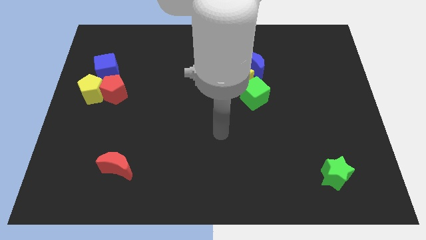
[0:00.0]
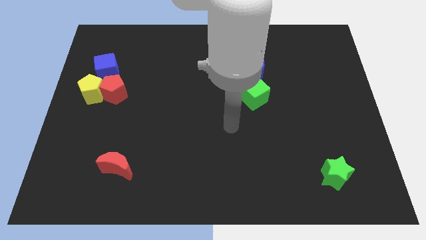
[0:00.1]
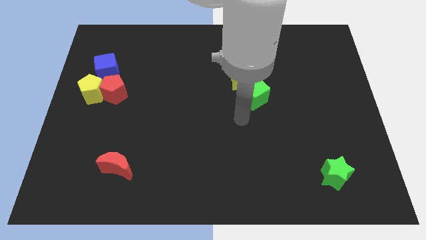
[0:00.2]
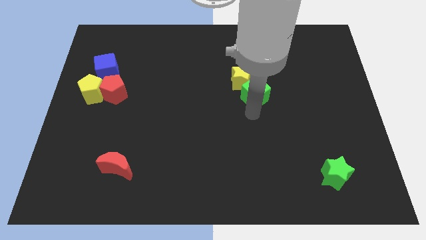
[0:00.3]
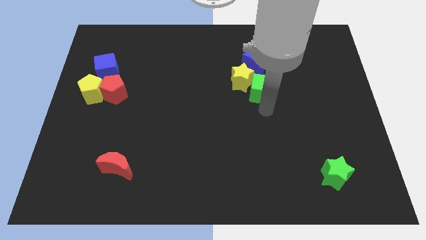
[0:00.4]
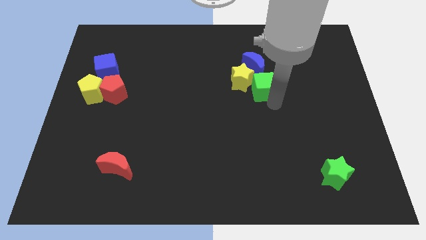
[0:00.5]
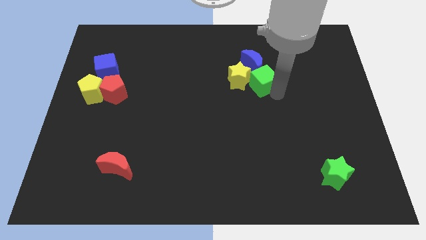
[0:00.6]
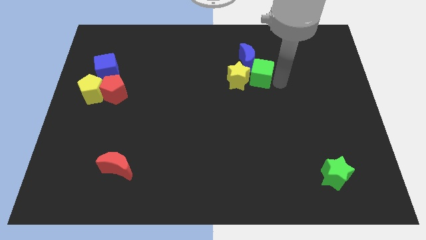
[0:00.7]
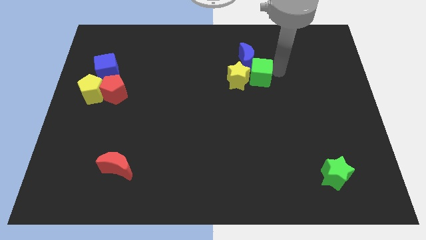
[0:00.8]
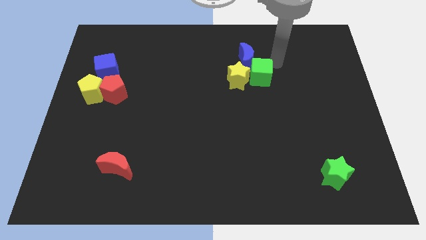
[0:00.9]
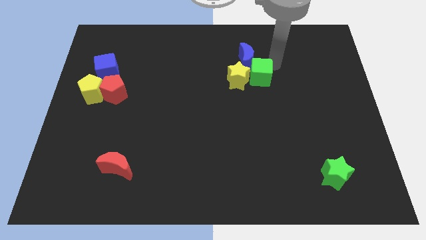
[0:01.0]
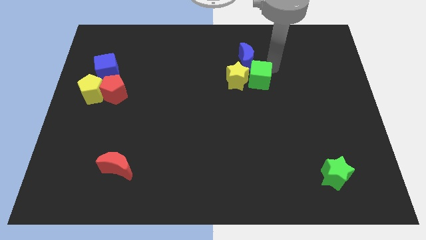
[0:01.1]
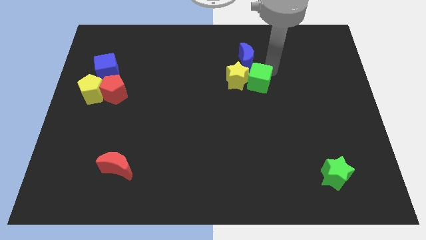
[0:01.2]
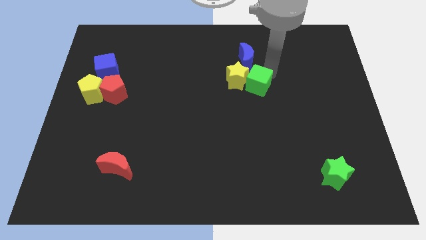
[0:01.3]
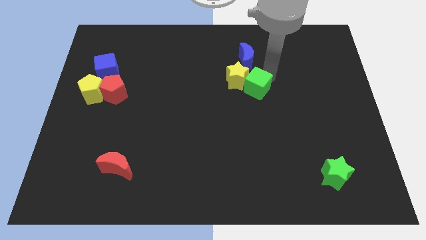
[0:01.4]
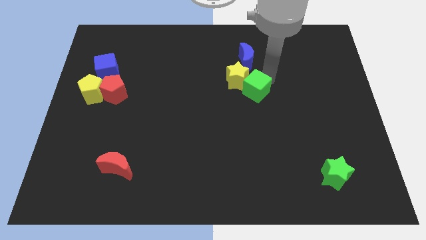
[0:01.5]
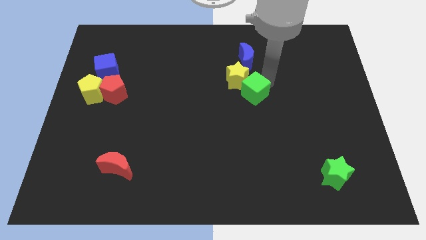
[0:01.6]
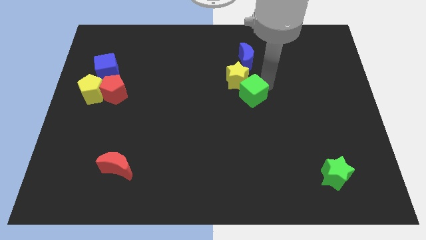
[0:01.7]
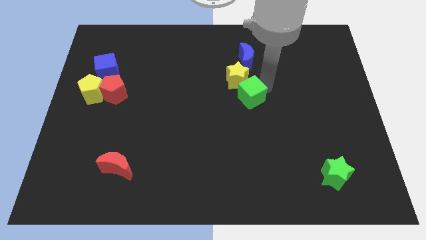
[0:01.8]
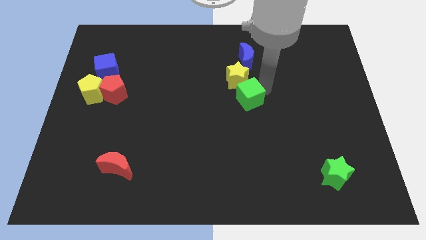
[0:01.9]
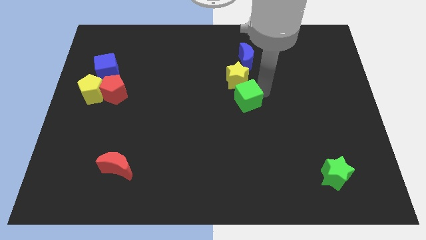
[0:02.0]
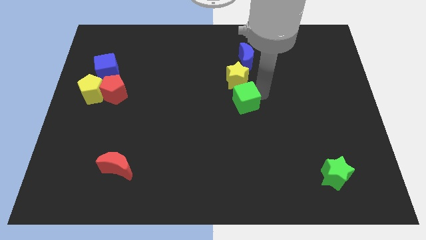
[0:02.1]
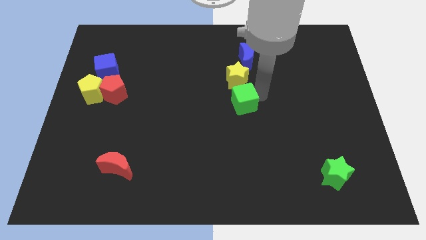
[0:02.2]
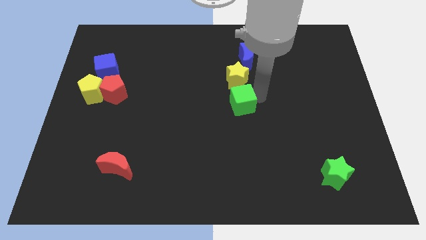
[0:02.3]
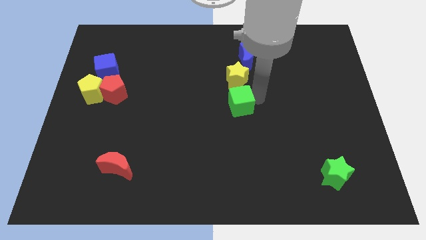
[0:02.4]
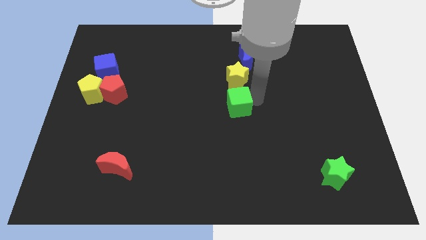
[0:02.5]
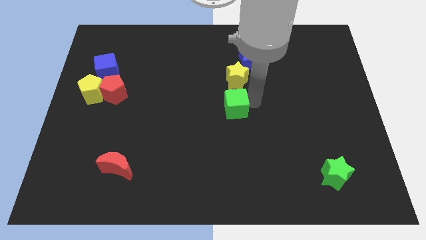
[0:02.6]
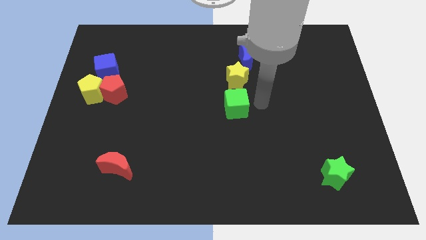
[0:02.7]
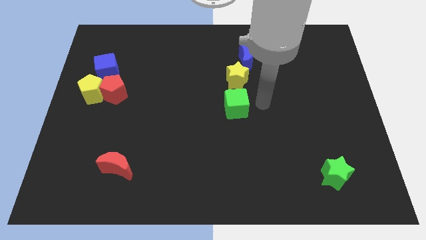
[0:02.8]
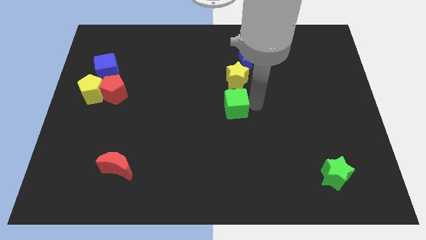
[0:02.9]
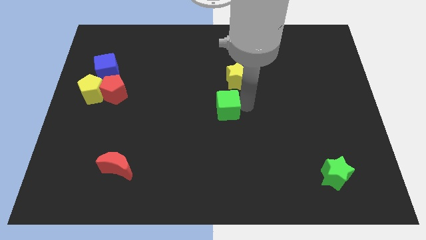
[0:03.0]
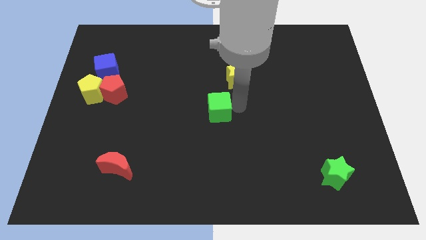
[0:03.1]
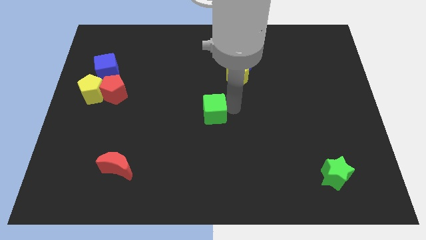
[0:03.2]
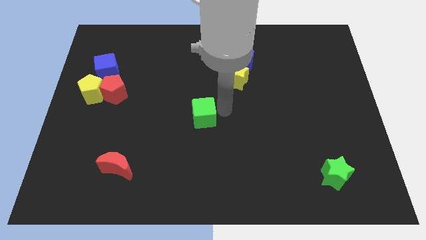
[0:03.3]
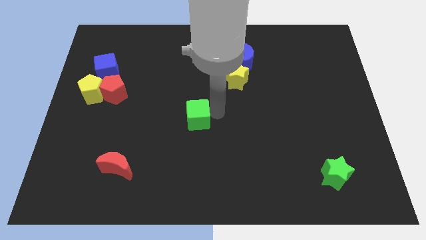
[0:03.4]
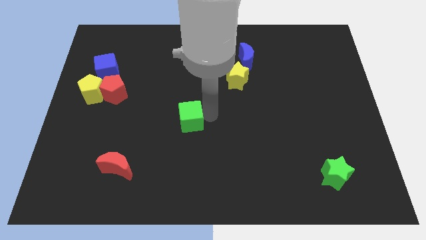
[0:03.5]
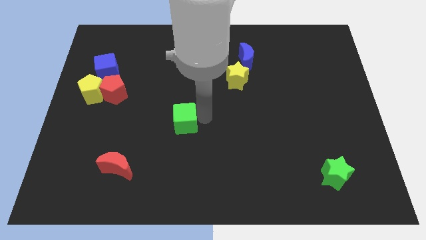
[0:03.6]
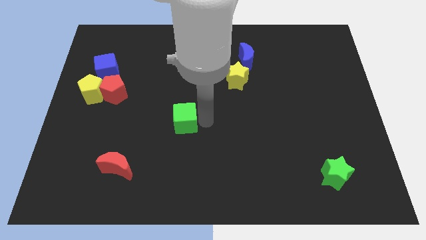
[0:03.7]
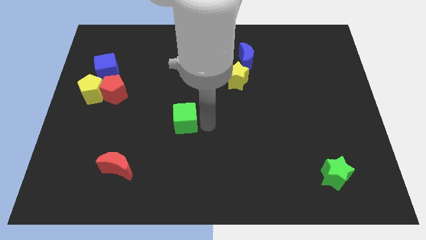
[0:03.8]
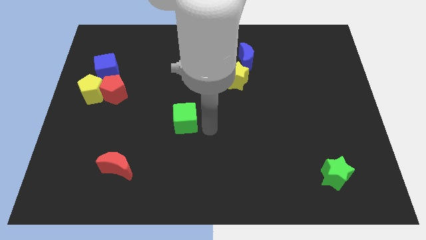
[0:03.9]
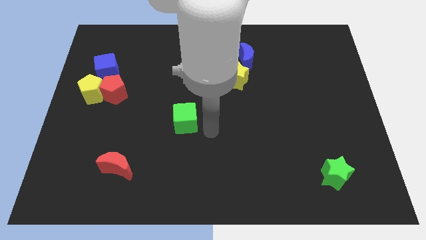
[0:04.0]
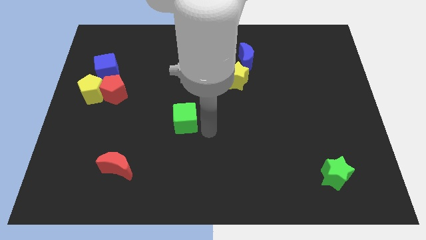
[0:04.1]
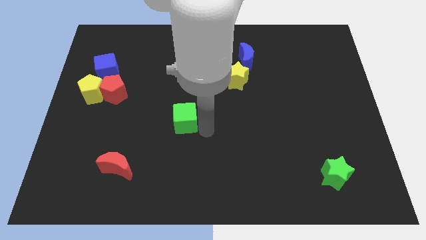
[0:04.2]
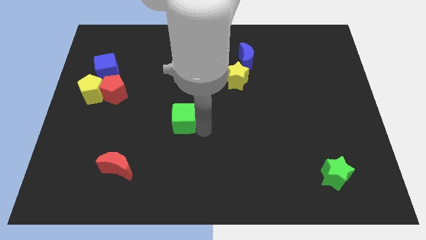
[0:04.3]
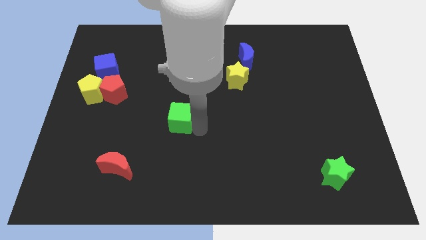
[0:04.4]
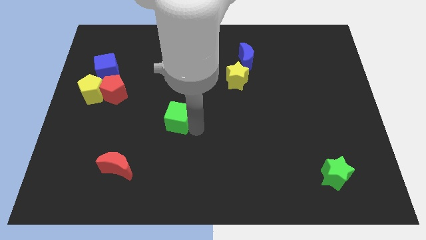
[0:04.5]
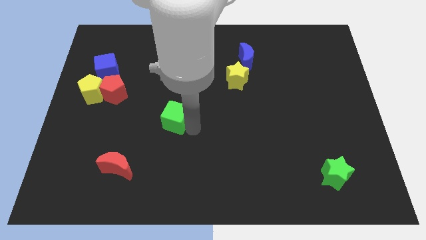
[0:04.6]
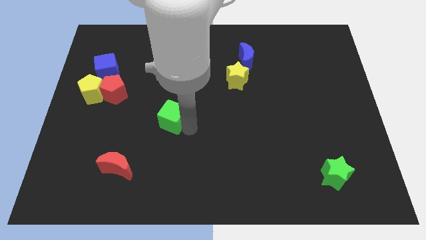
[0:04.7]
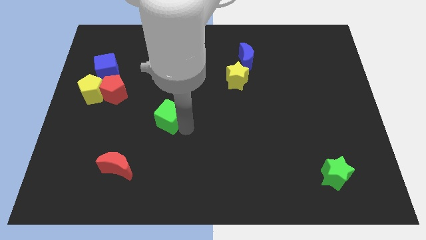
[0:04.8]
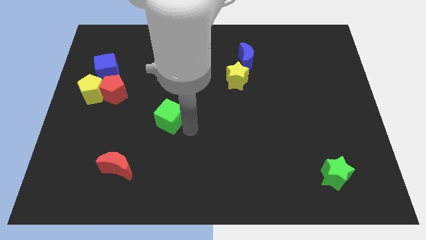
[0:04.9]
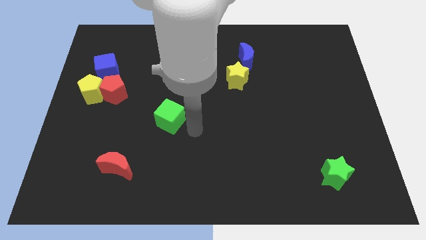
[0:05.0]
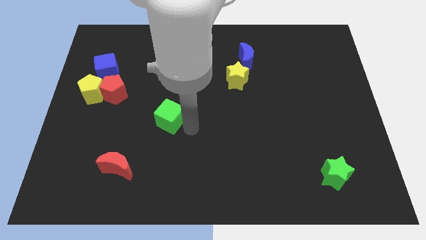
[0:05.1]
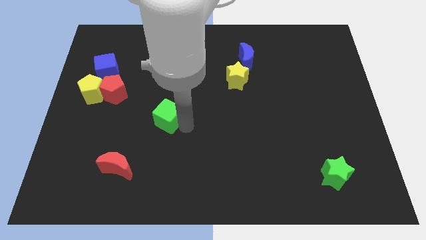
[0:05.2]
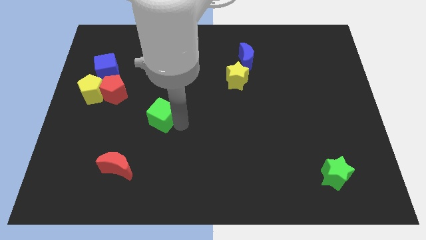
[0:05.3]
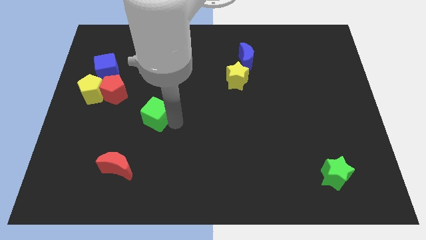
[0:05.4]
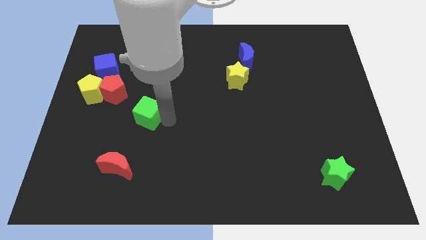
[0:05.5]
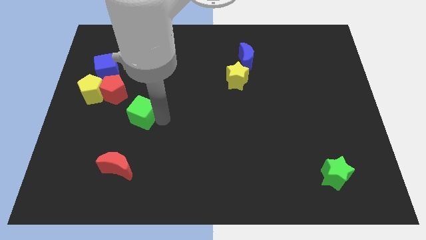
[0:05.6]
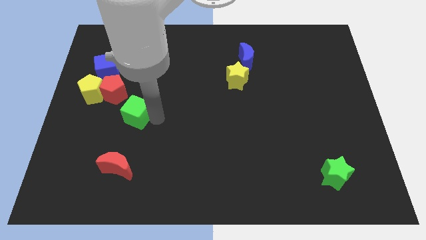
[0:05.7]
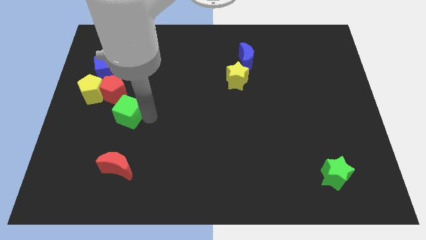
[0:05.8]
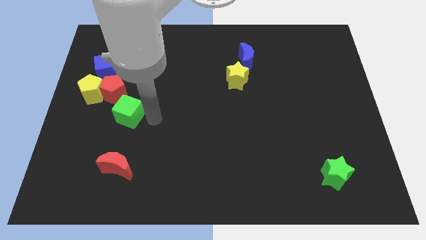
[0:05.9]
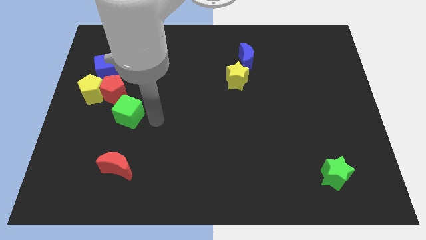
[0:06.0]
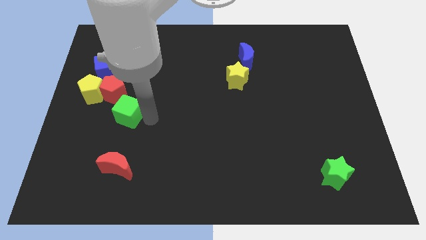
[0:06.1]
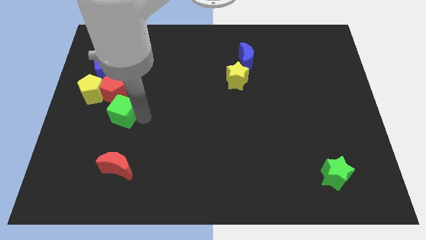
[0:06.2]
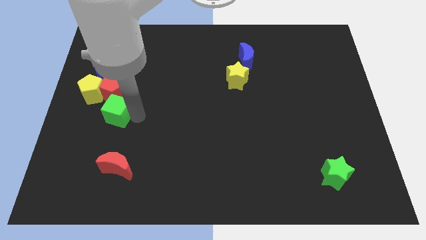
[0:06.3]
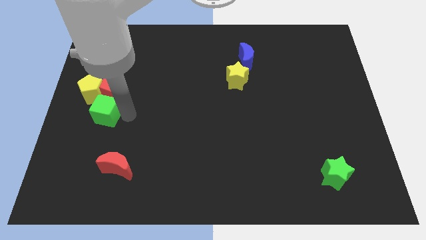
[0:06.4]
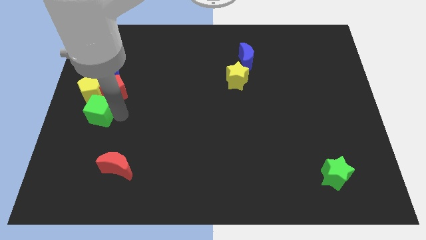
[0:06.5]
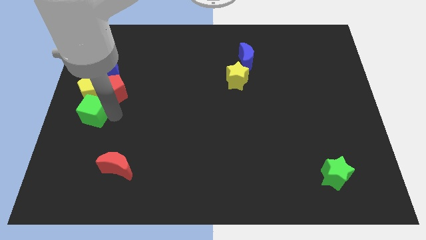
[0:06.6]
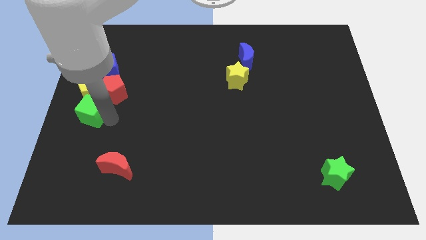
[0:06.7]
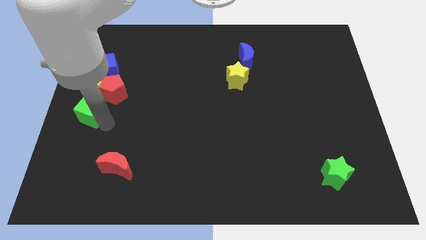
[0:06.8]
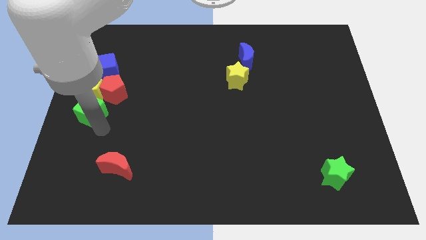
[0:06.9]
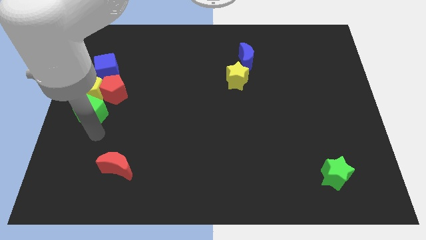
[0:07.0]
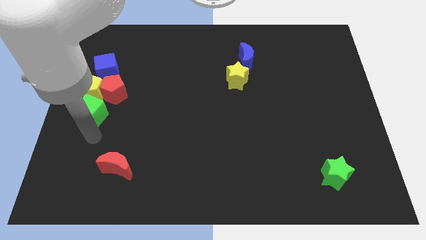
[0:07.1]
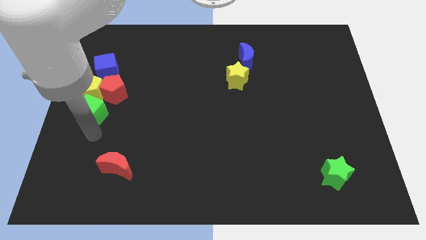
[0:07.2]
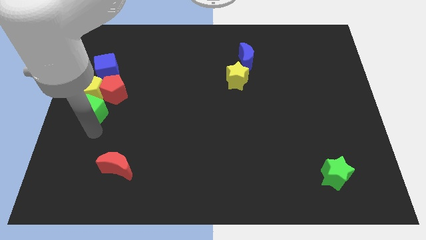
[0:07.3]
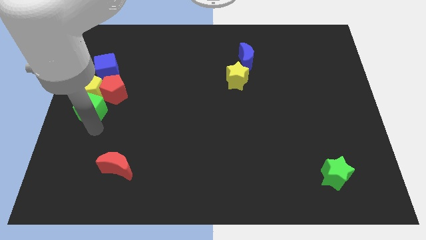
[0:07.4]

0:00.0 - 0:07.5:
slide the green cube next to the yellow pentagon
